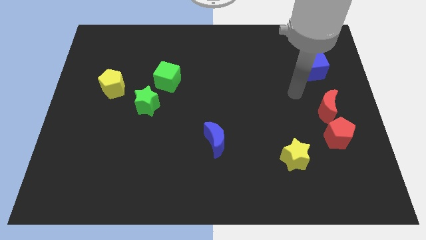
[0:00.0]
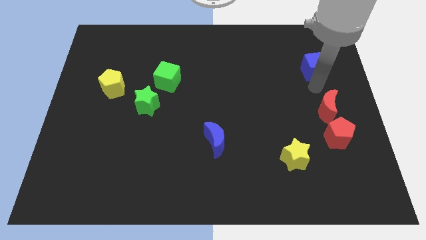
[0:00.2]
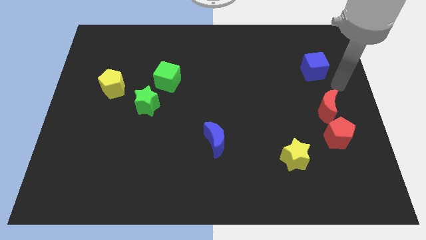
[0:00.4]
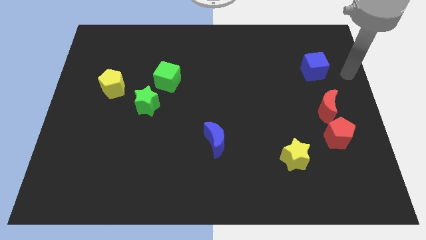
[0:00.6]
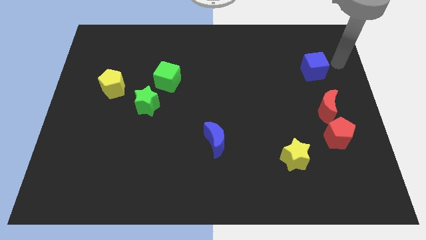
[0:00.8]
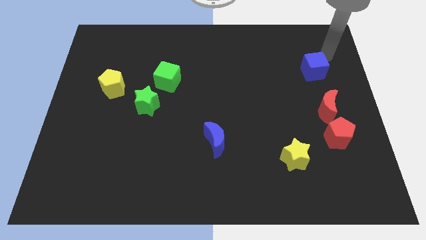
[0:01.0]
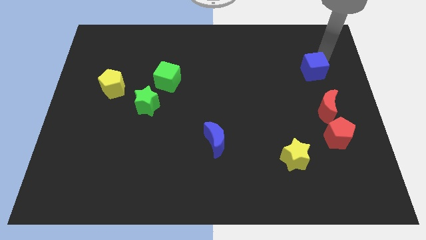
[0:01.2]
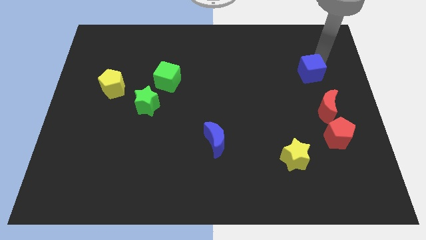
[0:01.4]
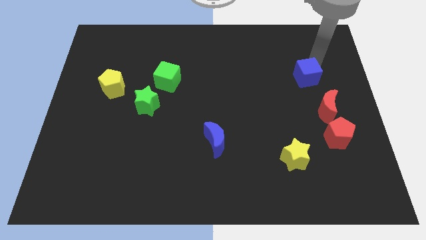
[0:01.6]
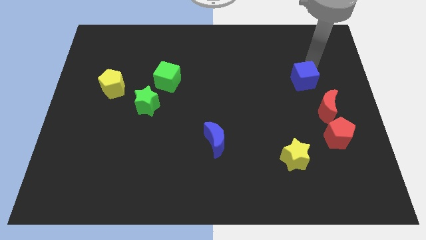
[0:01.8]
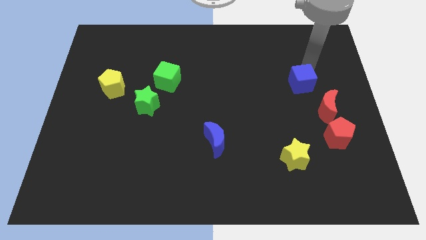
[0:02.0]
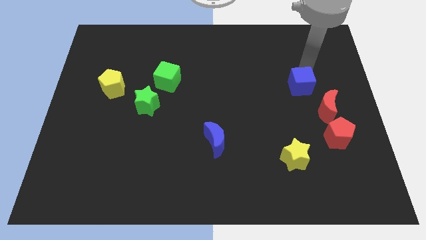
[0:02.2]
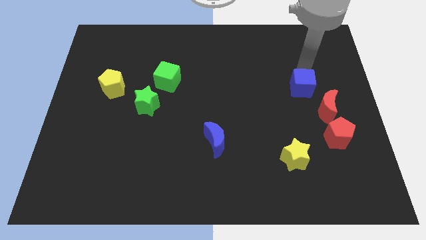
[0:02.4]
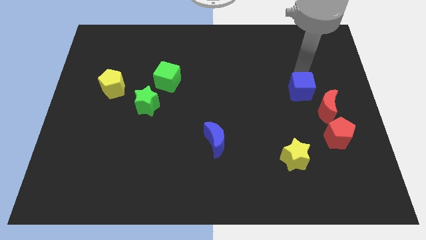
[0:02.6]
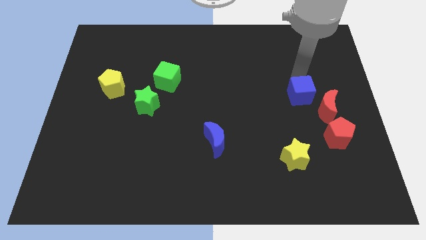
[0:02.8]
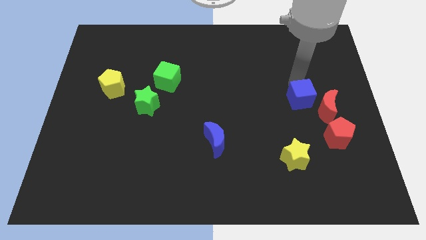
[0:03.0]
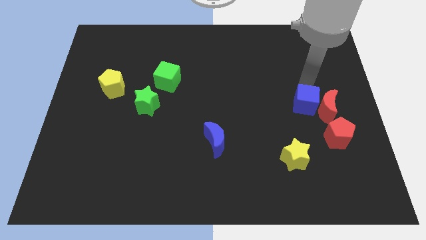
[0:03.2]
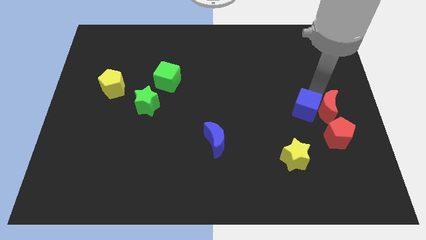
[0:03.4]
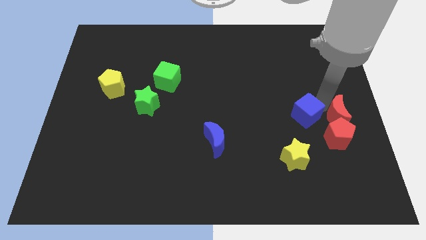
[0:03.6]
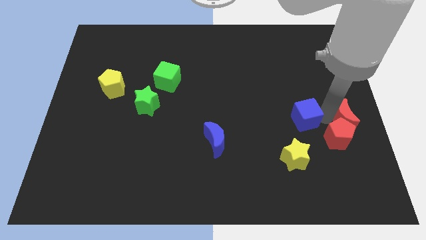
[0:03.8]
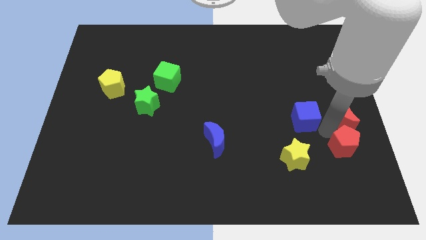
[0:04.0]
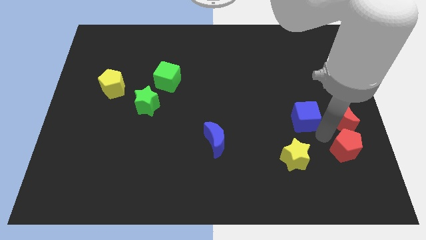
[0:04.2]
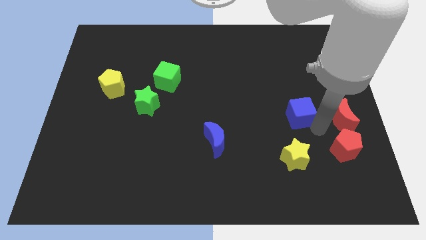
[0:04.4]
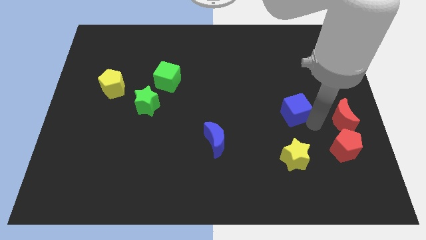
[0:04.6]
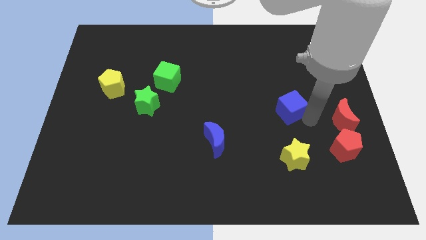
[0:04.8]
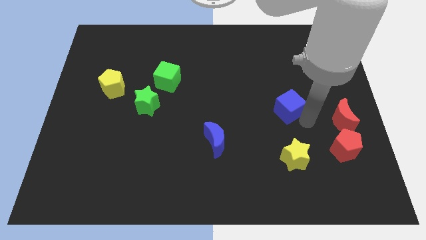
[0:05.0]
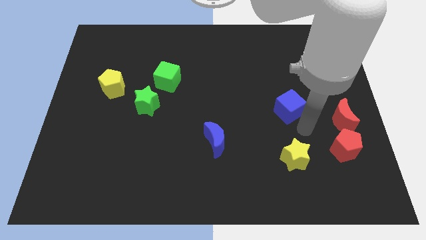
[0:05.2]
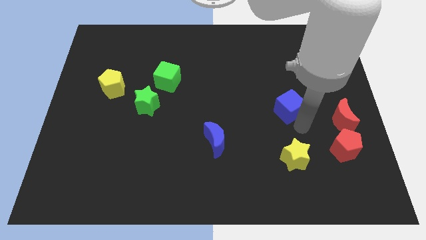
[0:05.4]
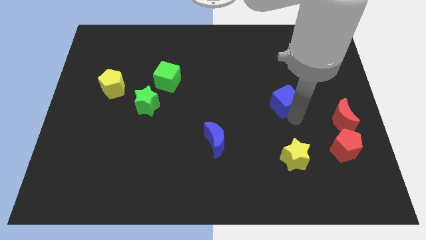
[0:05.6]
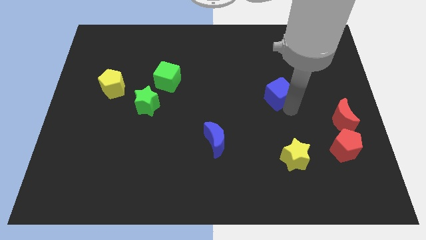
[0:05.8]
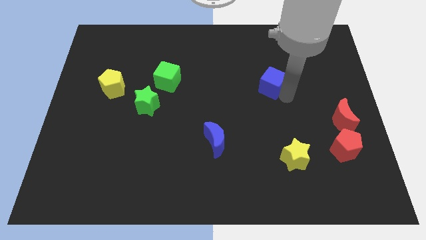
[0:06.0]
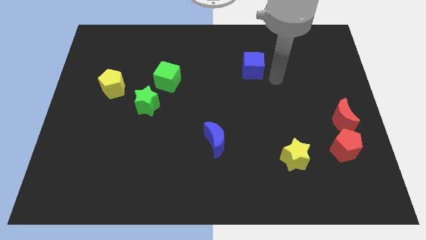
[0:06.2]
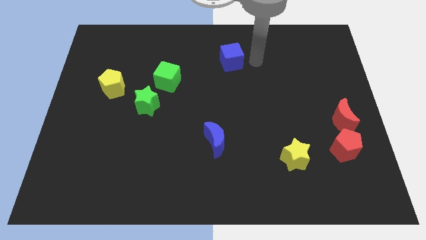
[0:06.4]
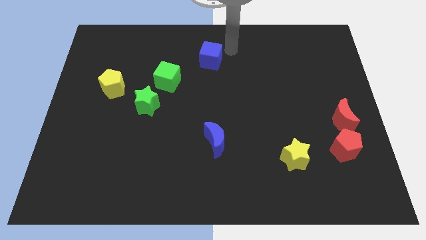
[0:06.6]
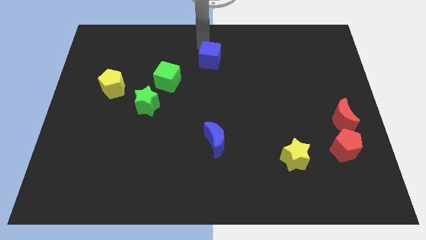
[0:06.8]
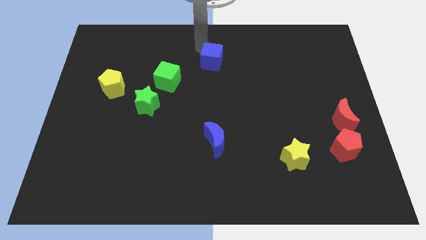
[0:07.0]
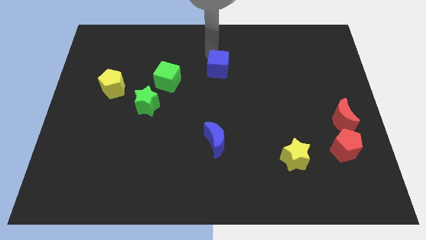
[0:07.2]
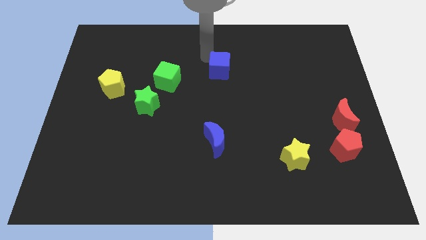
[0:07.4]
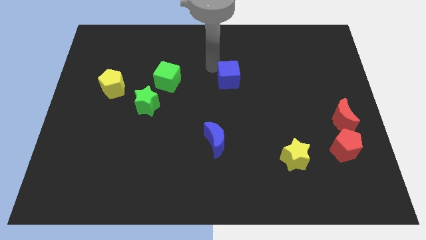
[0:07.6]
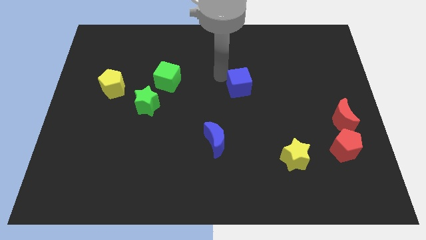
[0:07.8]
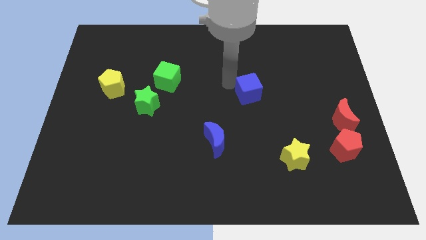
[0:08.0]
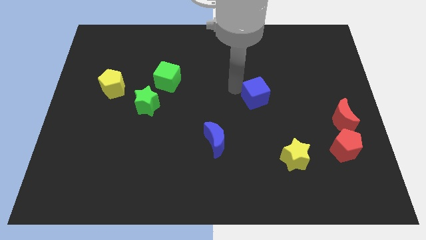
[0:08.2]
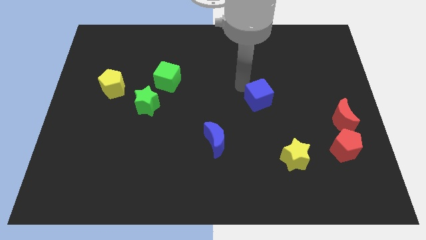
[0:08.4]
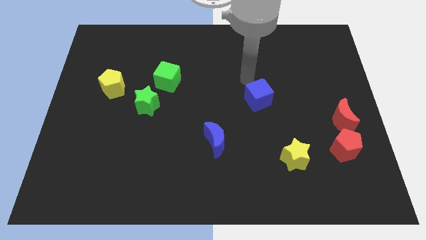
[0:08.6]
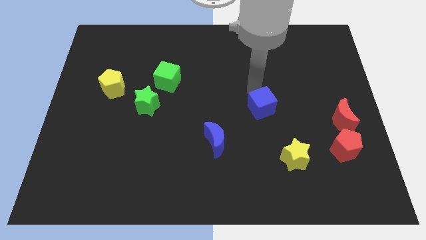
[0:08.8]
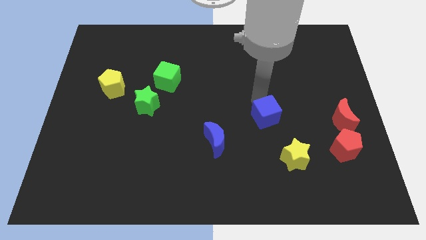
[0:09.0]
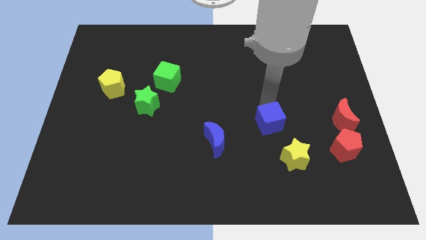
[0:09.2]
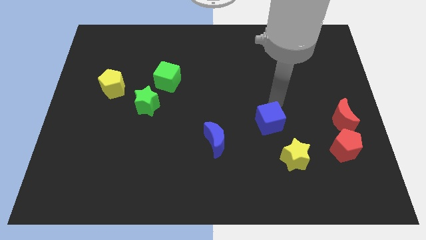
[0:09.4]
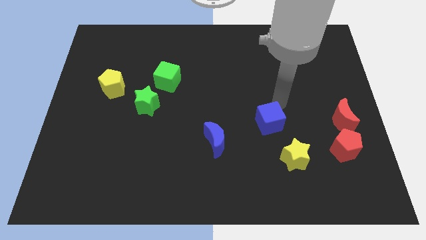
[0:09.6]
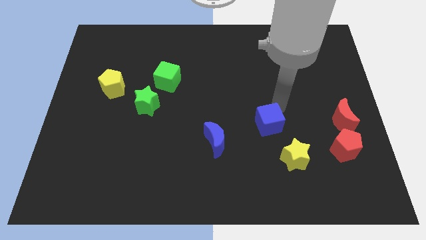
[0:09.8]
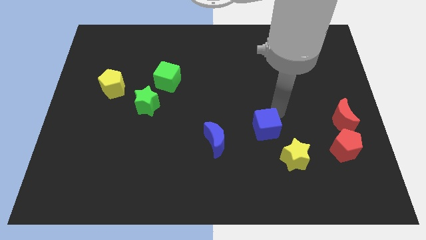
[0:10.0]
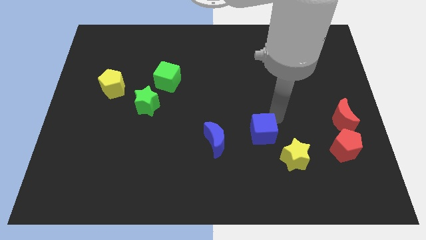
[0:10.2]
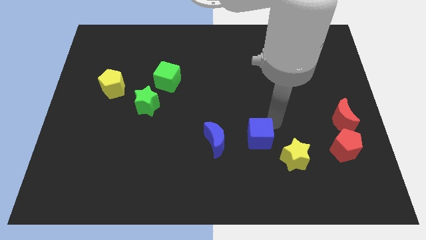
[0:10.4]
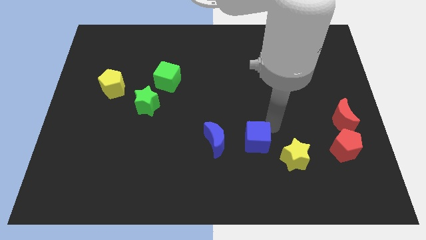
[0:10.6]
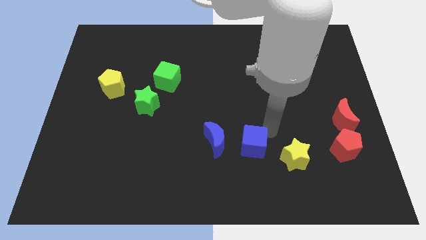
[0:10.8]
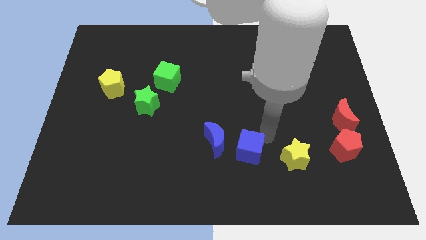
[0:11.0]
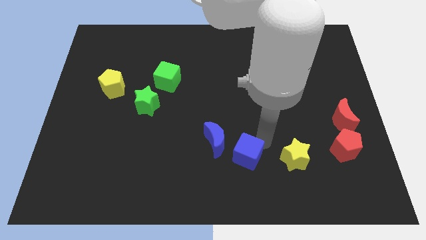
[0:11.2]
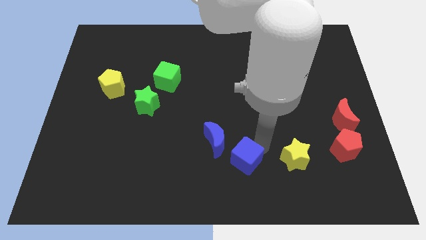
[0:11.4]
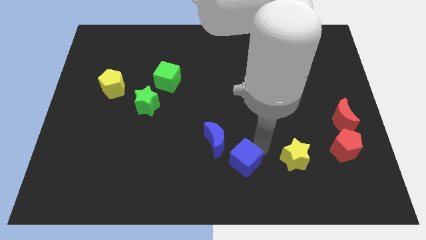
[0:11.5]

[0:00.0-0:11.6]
move the blue cube to the bottom side
